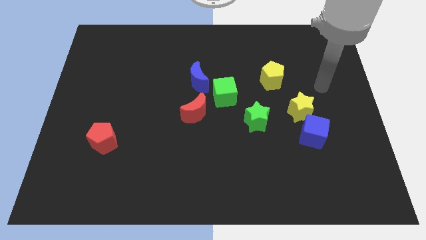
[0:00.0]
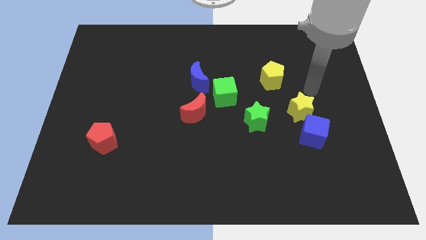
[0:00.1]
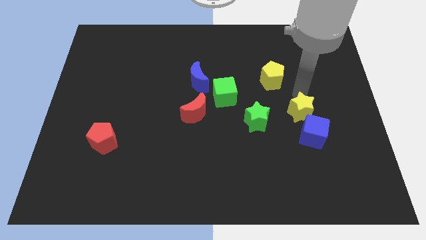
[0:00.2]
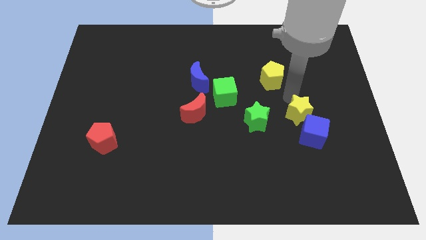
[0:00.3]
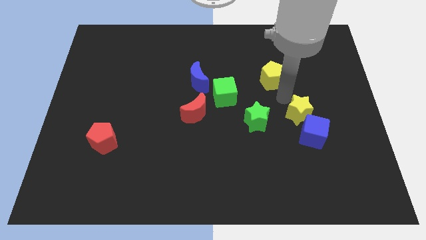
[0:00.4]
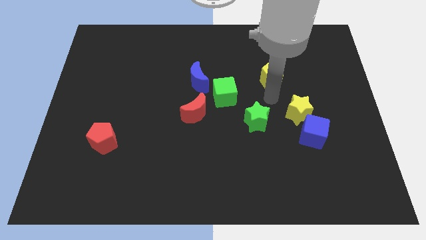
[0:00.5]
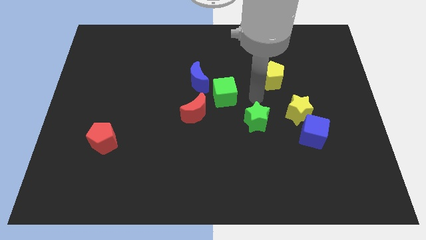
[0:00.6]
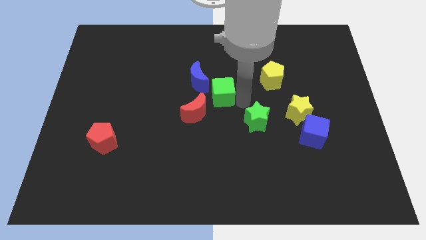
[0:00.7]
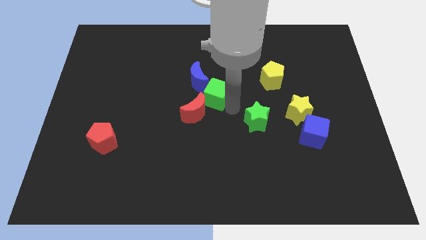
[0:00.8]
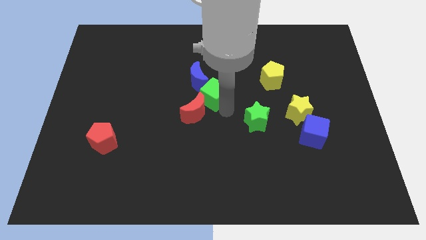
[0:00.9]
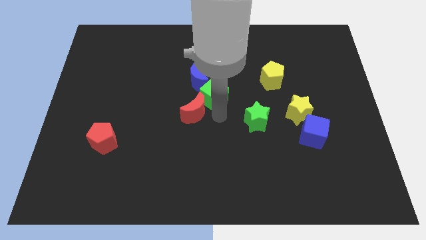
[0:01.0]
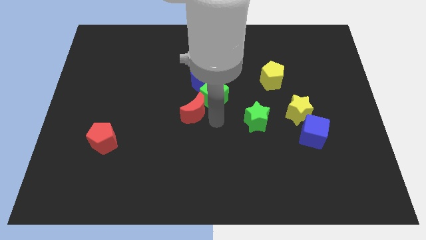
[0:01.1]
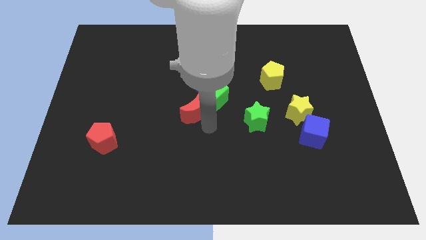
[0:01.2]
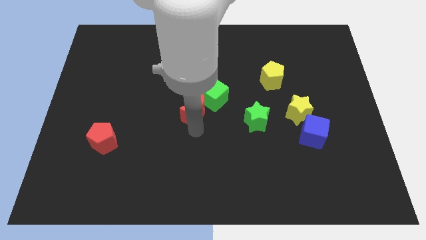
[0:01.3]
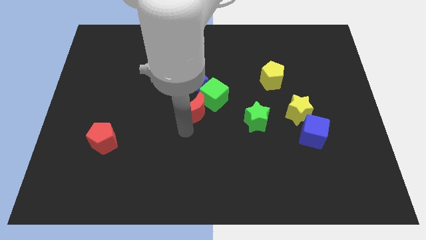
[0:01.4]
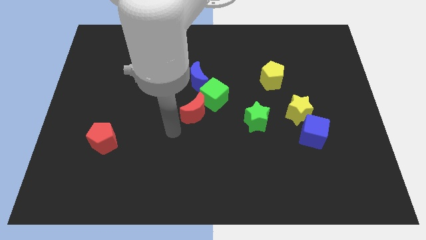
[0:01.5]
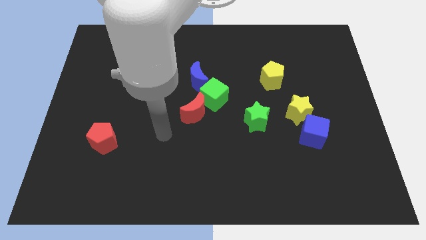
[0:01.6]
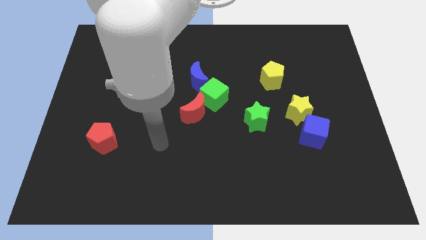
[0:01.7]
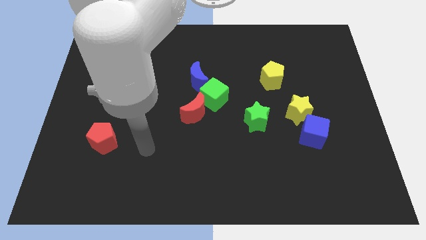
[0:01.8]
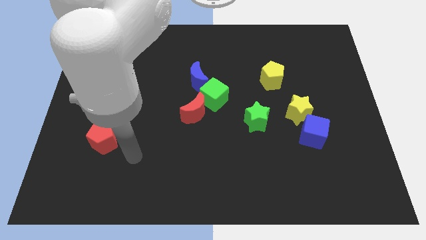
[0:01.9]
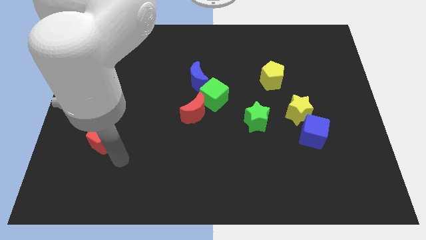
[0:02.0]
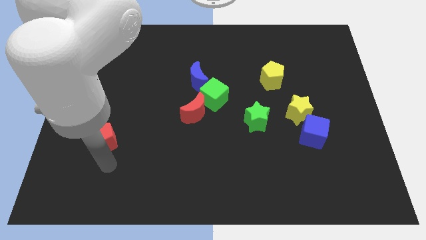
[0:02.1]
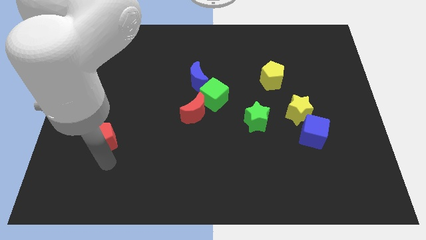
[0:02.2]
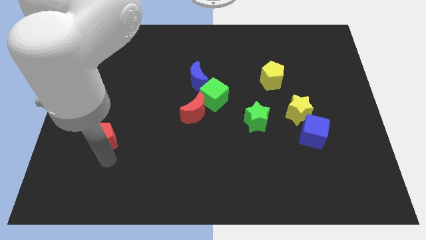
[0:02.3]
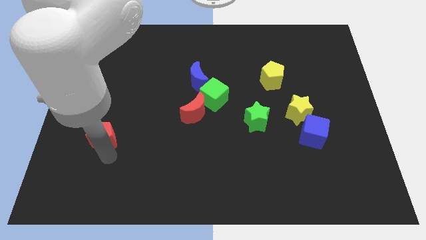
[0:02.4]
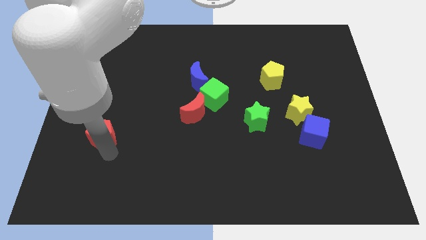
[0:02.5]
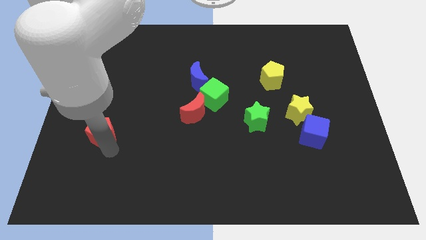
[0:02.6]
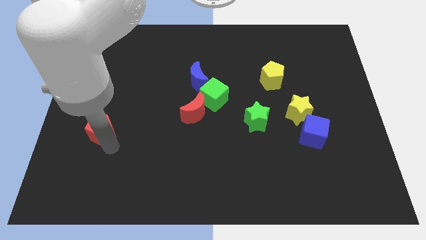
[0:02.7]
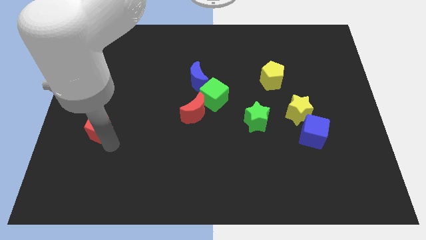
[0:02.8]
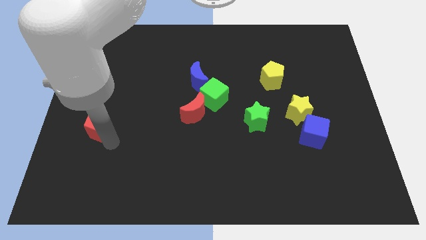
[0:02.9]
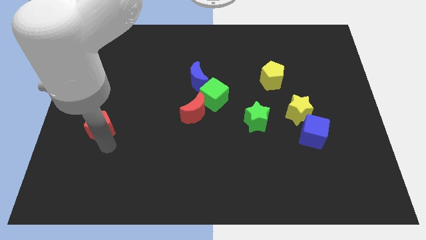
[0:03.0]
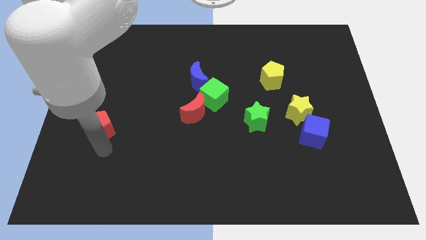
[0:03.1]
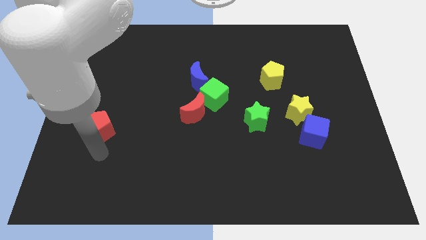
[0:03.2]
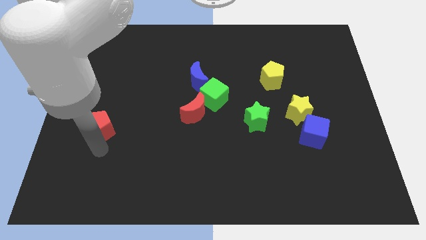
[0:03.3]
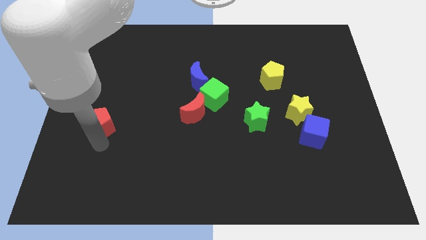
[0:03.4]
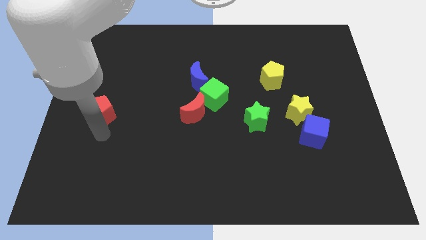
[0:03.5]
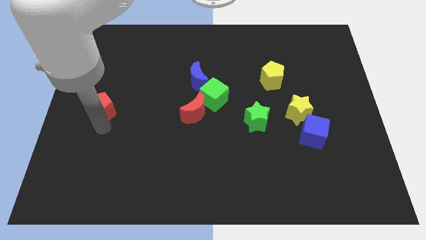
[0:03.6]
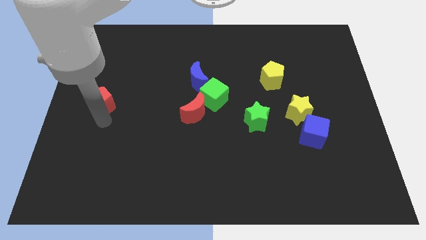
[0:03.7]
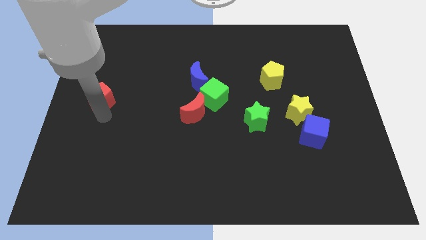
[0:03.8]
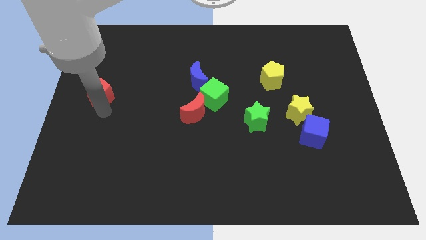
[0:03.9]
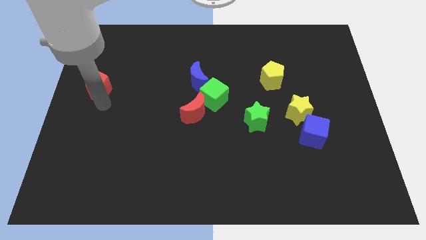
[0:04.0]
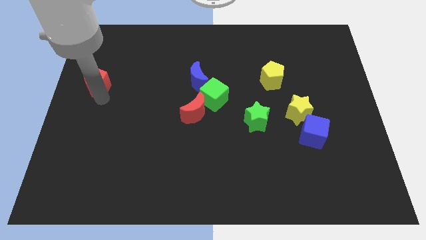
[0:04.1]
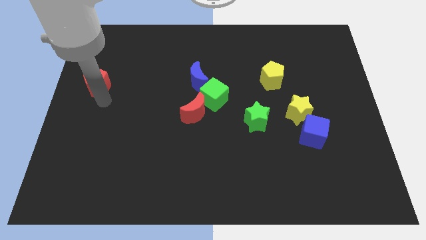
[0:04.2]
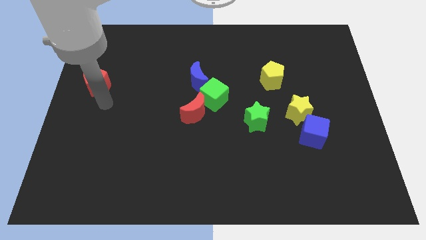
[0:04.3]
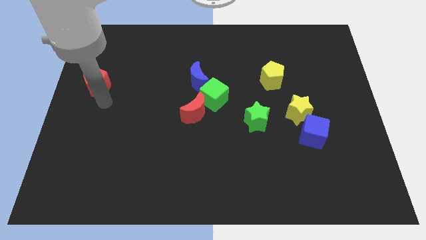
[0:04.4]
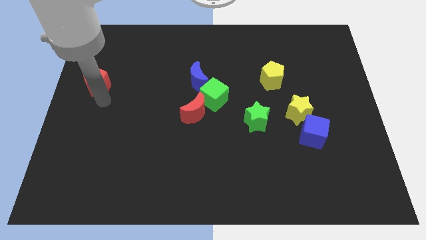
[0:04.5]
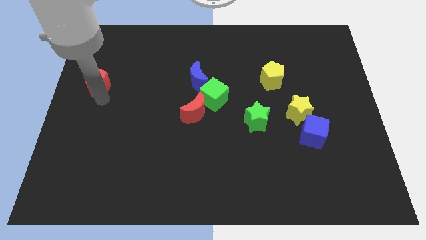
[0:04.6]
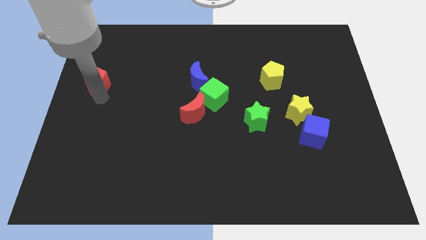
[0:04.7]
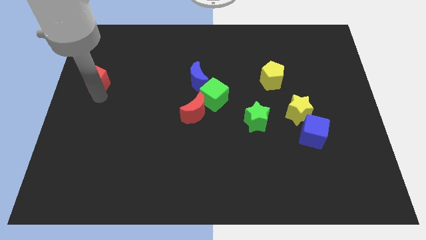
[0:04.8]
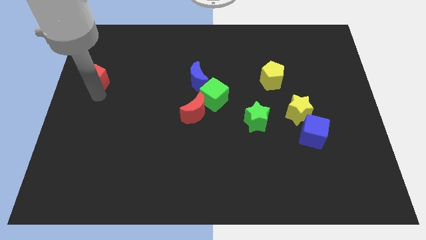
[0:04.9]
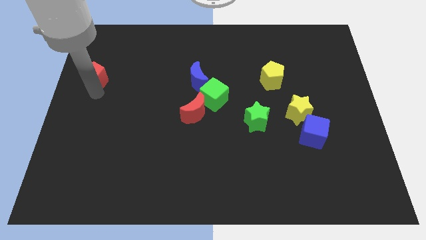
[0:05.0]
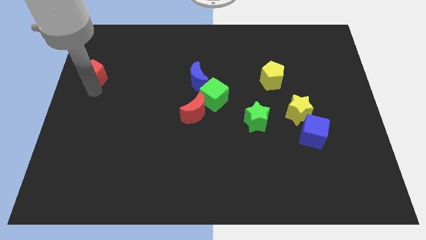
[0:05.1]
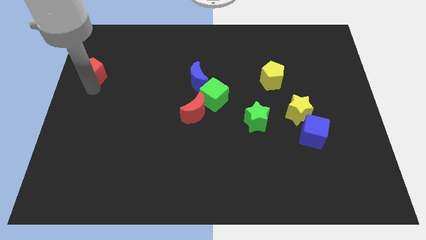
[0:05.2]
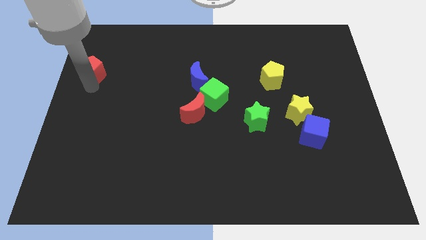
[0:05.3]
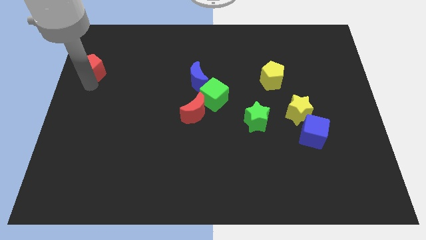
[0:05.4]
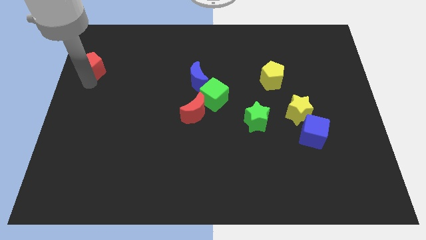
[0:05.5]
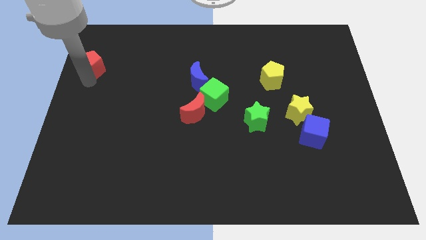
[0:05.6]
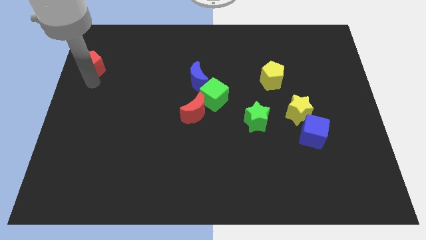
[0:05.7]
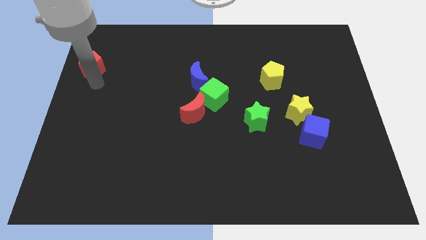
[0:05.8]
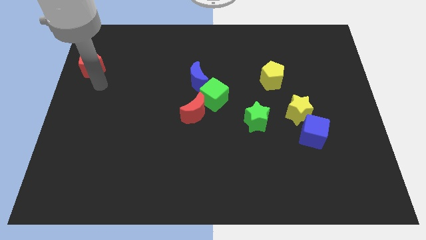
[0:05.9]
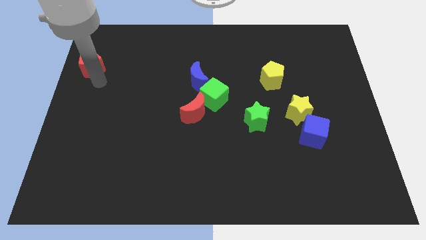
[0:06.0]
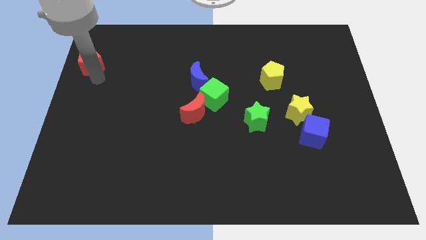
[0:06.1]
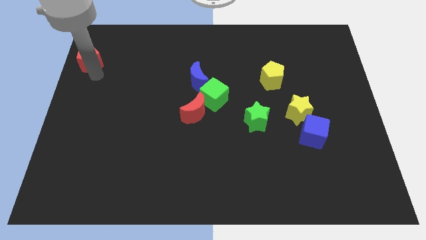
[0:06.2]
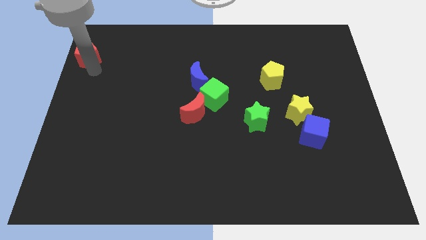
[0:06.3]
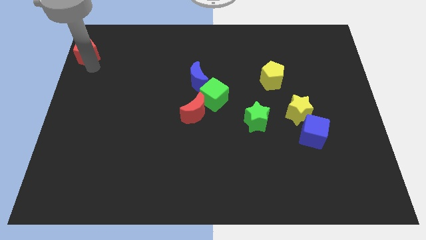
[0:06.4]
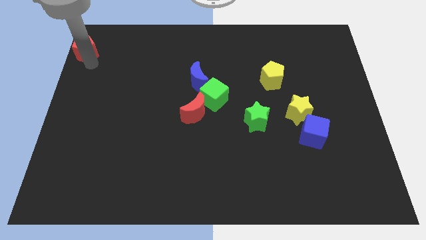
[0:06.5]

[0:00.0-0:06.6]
slide the red pentagon to the top left
